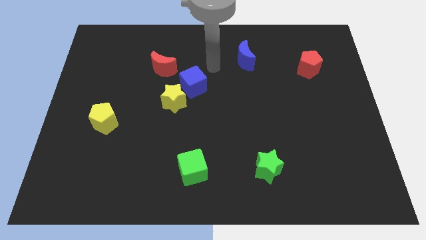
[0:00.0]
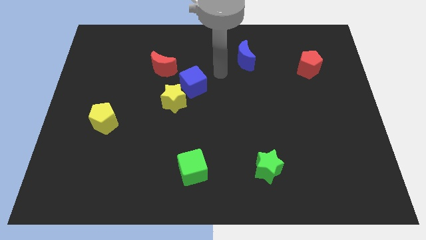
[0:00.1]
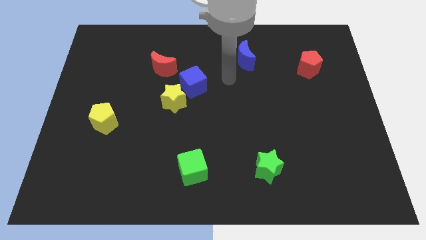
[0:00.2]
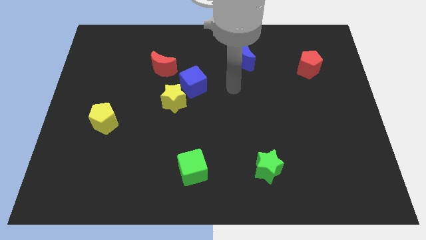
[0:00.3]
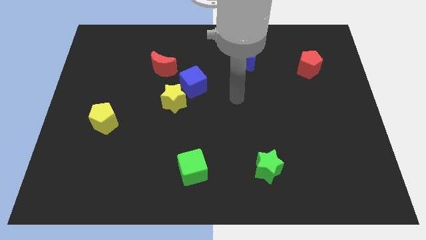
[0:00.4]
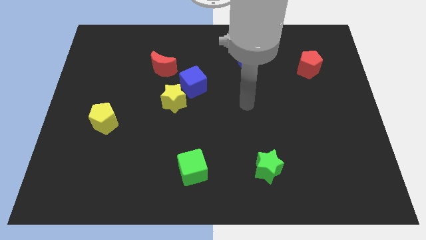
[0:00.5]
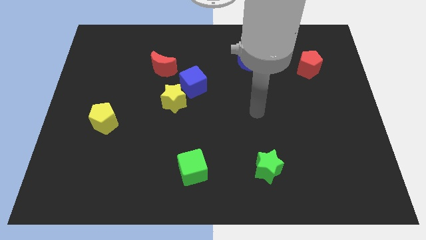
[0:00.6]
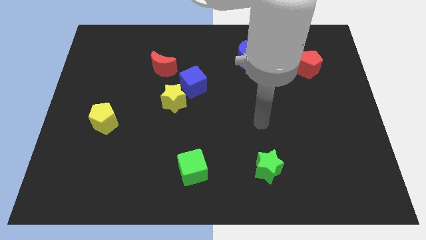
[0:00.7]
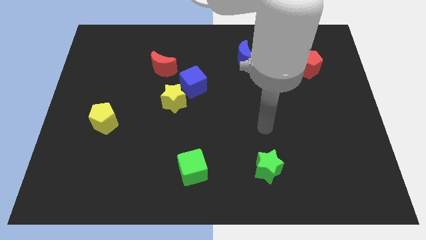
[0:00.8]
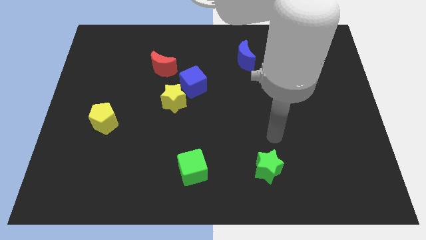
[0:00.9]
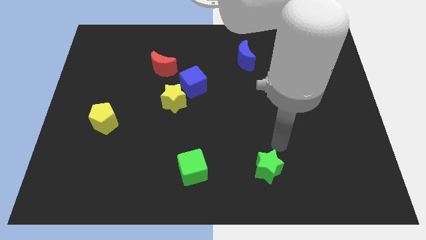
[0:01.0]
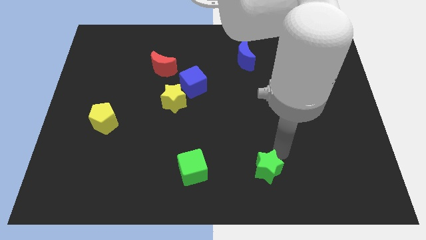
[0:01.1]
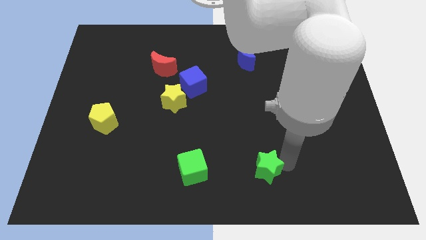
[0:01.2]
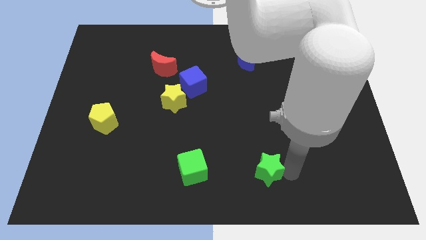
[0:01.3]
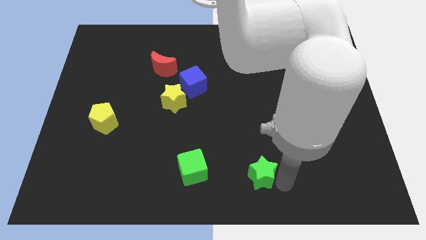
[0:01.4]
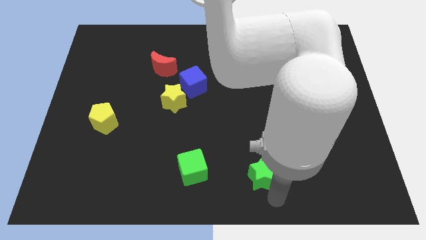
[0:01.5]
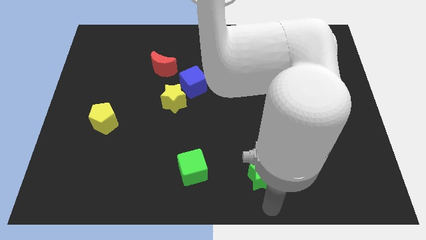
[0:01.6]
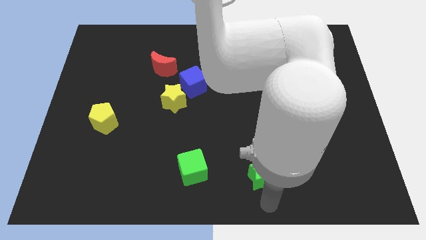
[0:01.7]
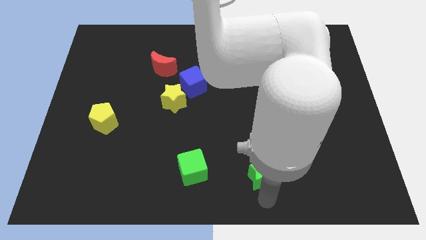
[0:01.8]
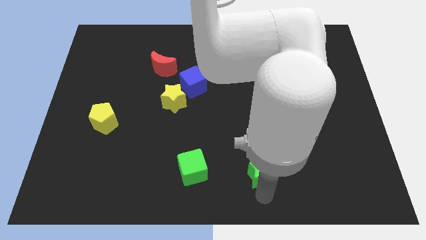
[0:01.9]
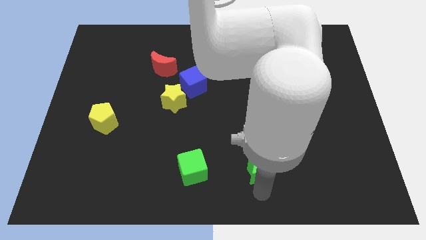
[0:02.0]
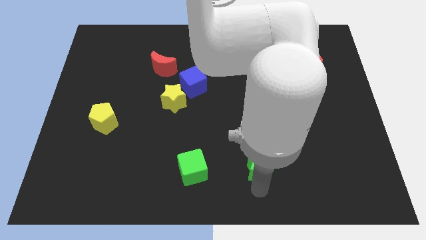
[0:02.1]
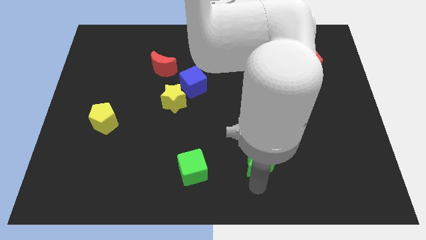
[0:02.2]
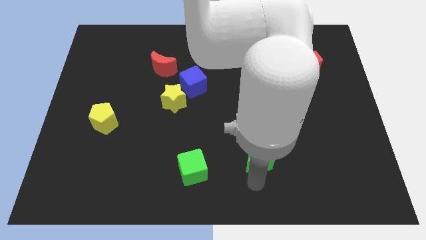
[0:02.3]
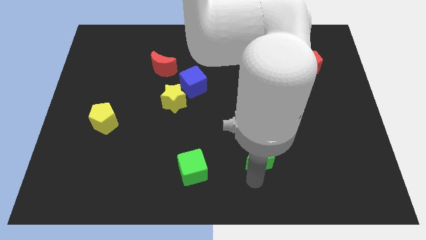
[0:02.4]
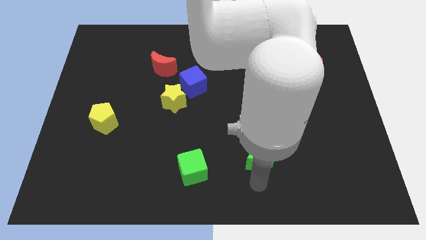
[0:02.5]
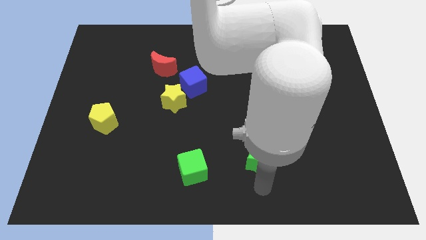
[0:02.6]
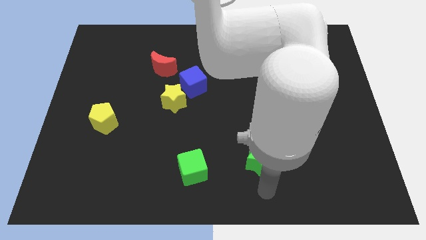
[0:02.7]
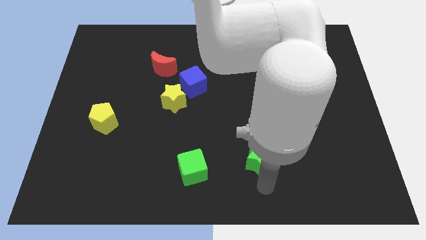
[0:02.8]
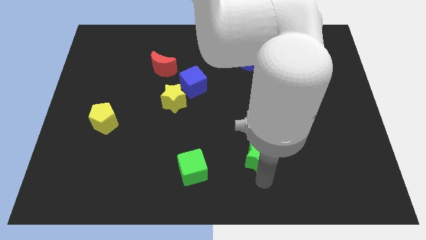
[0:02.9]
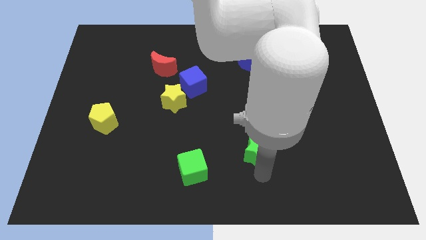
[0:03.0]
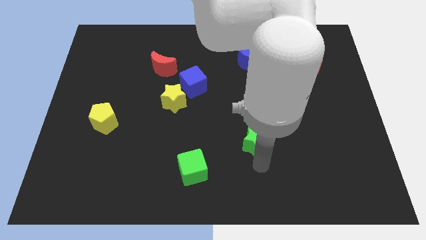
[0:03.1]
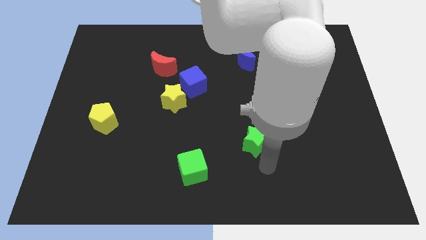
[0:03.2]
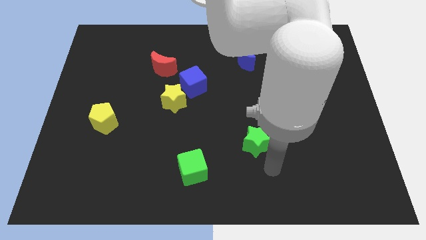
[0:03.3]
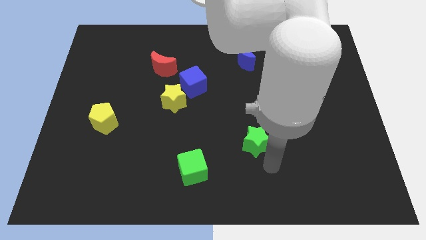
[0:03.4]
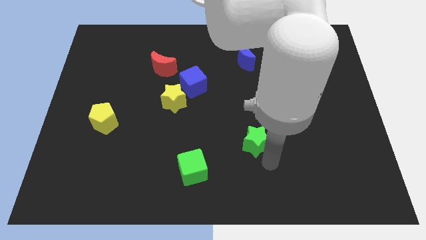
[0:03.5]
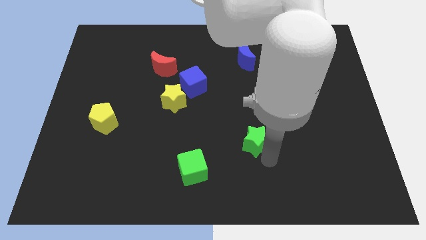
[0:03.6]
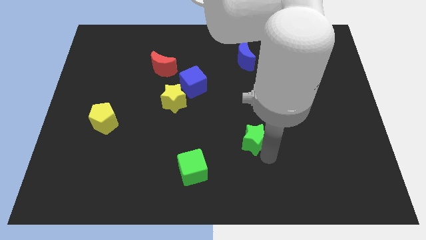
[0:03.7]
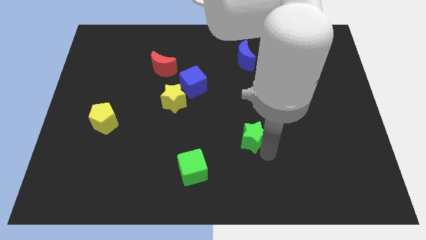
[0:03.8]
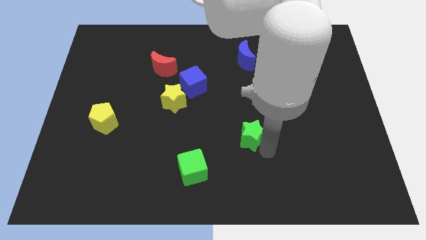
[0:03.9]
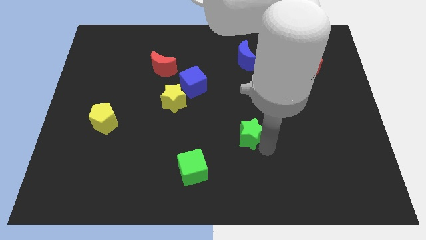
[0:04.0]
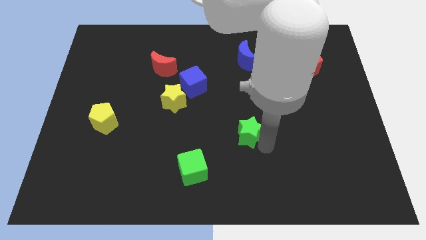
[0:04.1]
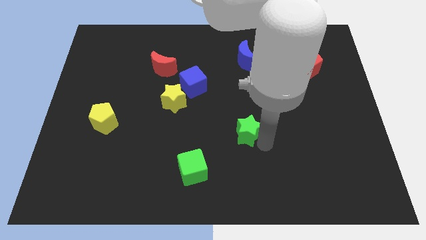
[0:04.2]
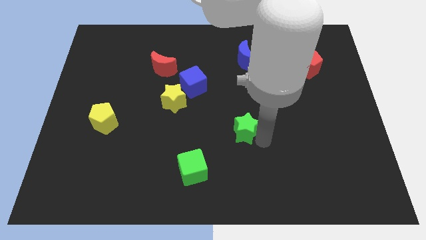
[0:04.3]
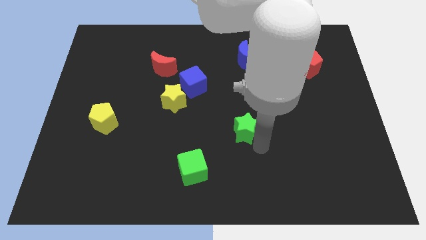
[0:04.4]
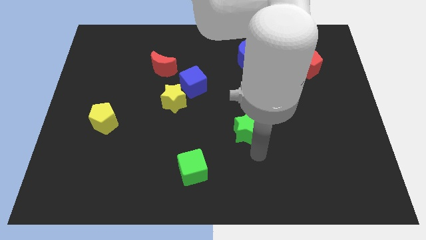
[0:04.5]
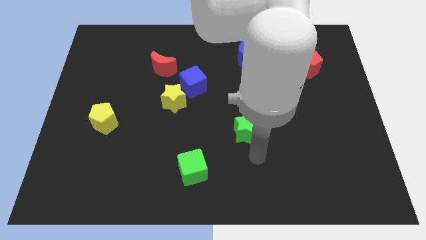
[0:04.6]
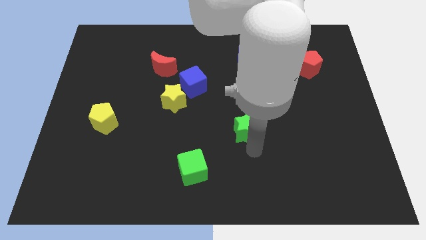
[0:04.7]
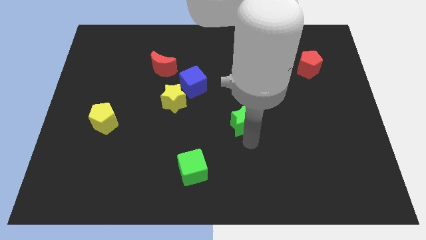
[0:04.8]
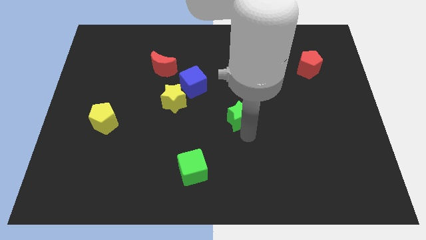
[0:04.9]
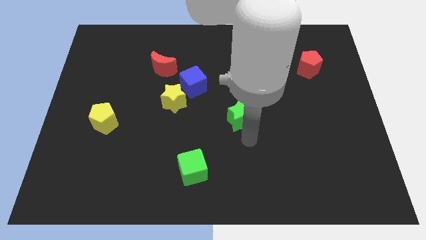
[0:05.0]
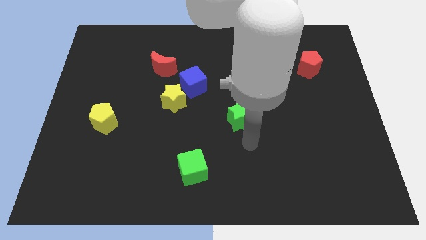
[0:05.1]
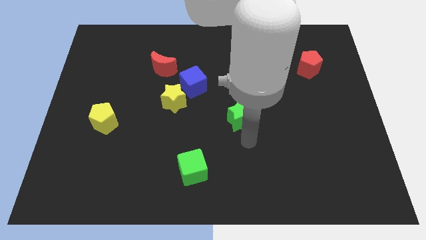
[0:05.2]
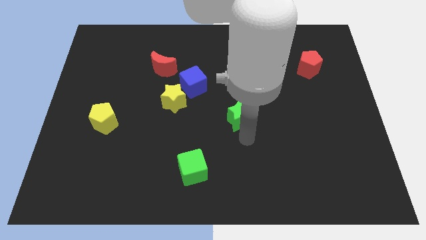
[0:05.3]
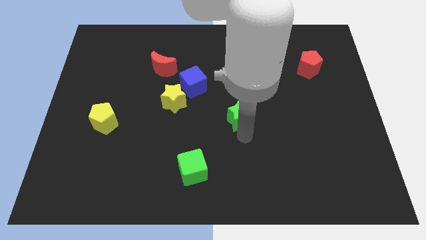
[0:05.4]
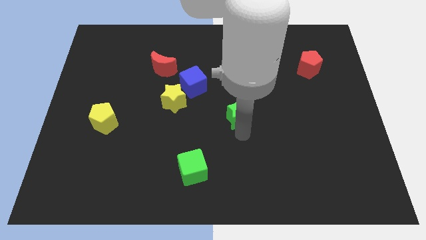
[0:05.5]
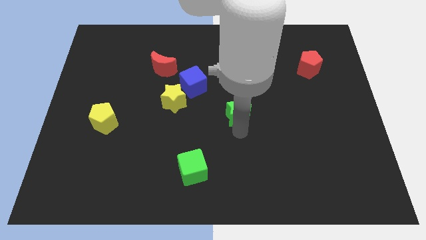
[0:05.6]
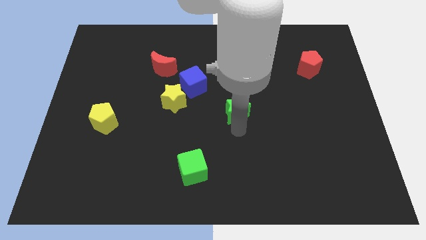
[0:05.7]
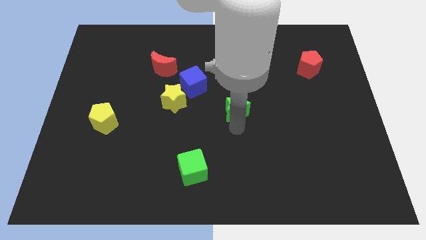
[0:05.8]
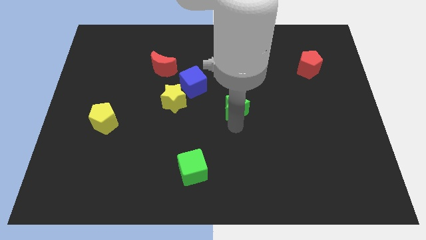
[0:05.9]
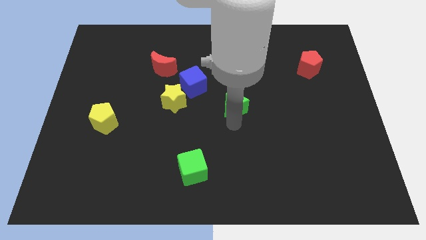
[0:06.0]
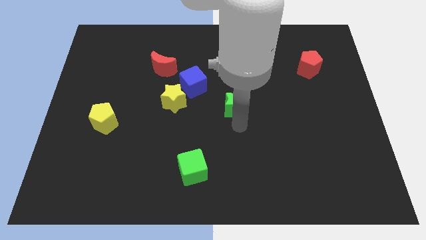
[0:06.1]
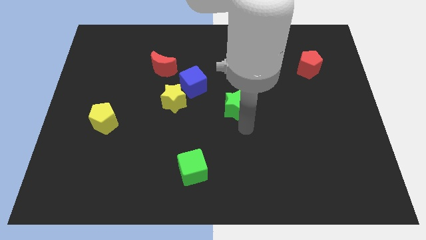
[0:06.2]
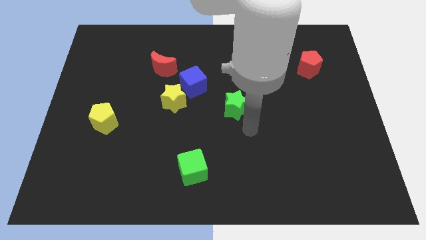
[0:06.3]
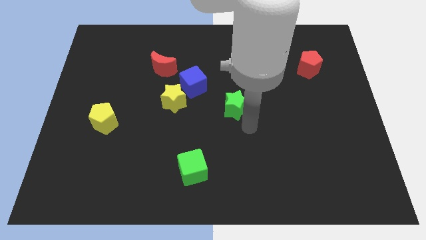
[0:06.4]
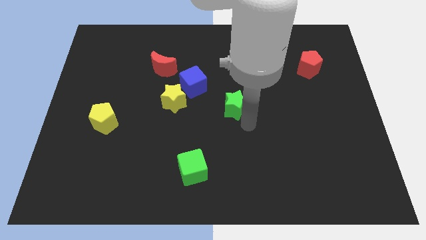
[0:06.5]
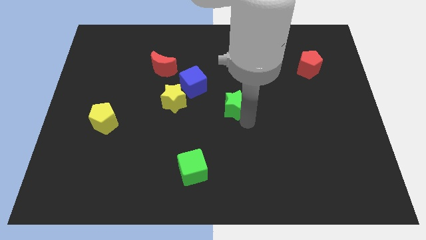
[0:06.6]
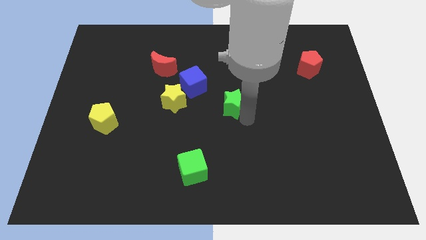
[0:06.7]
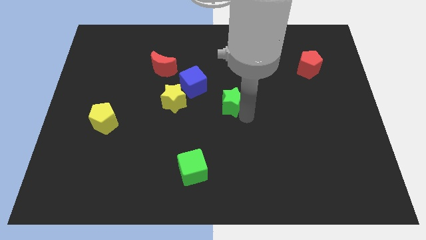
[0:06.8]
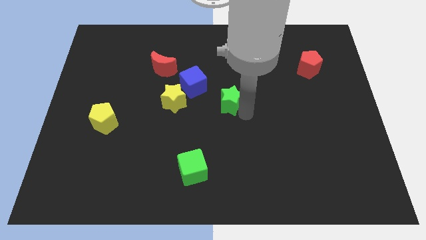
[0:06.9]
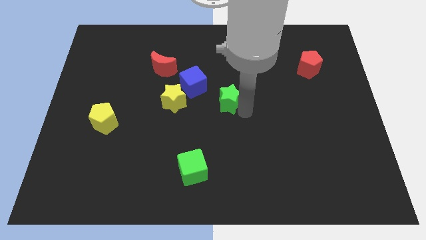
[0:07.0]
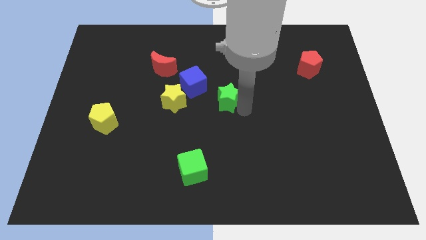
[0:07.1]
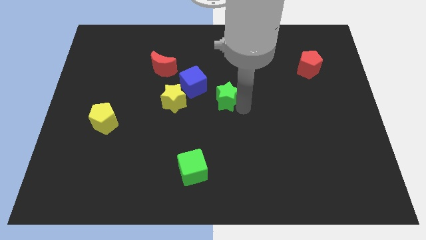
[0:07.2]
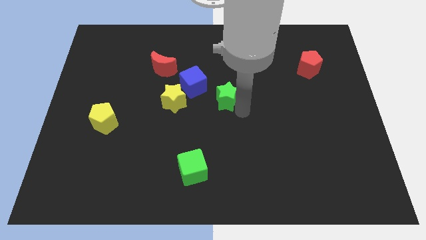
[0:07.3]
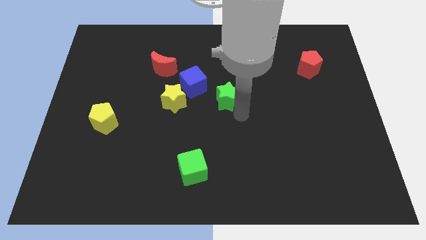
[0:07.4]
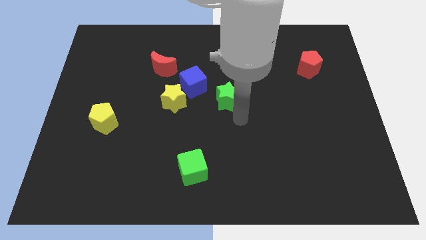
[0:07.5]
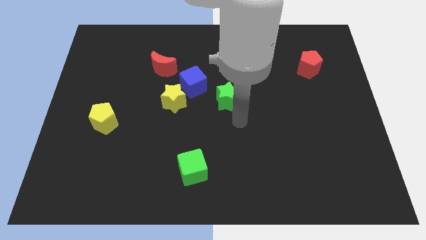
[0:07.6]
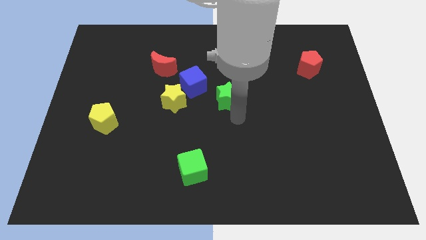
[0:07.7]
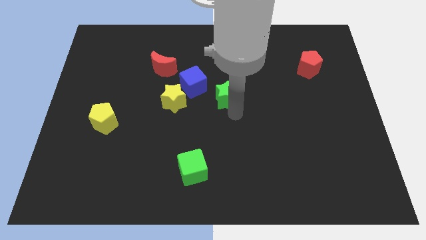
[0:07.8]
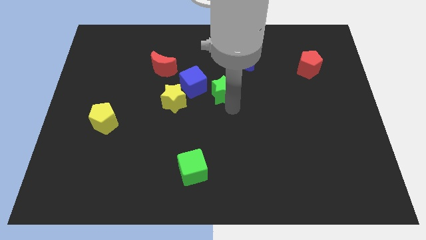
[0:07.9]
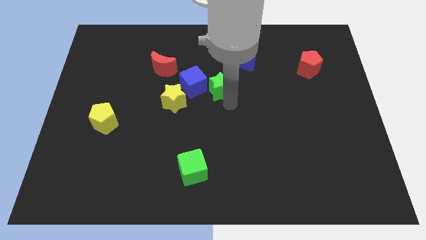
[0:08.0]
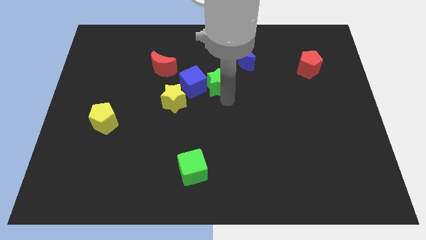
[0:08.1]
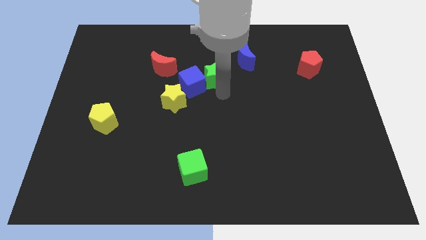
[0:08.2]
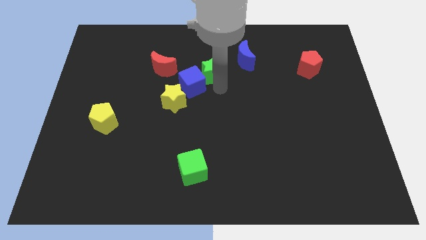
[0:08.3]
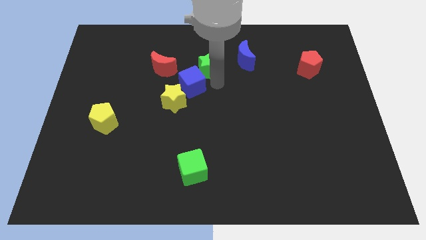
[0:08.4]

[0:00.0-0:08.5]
slide the green star to the left side of the blue moon
